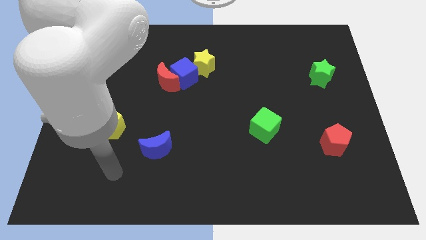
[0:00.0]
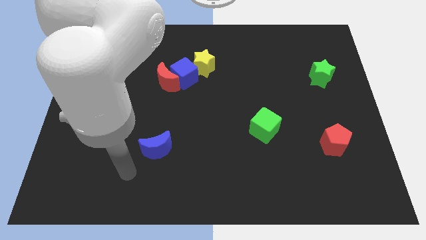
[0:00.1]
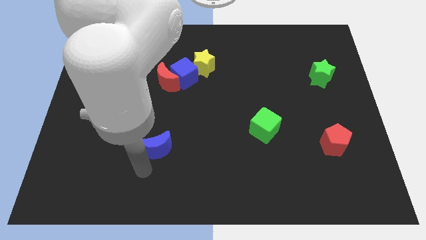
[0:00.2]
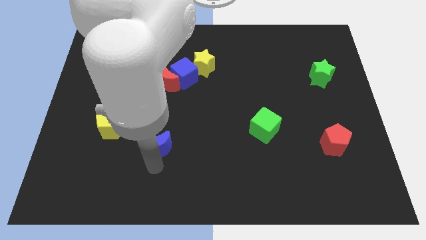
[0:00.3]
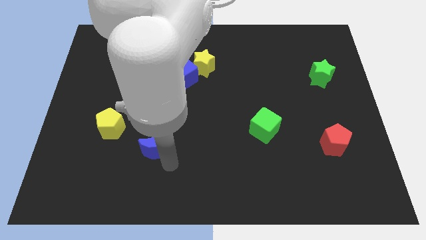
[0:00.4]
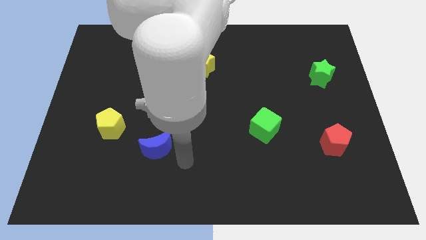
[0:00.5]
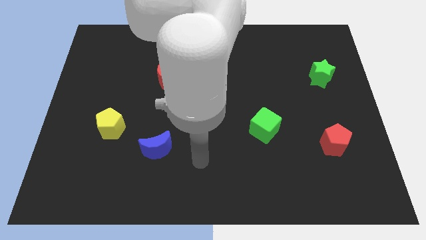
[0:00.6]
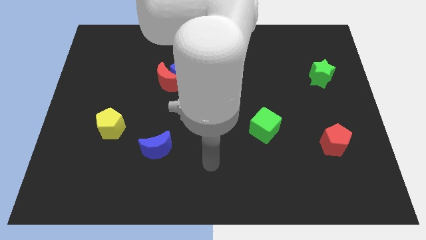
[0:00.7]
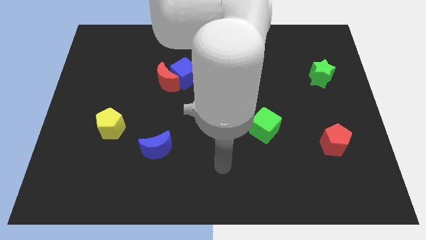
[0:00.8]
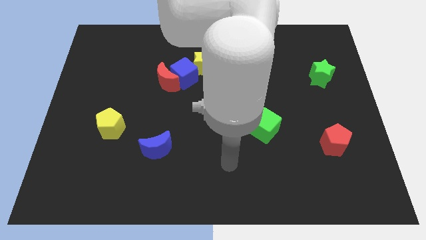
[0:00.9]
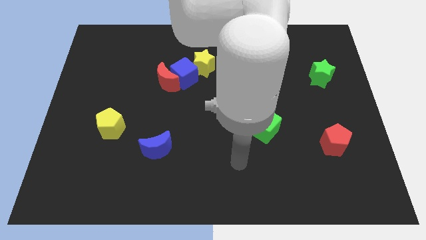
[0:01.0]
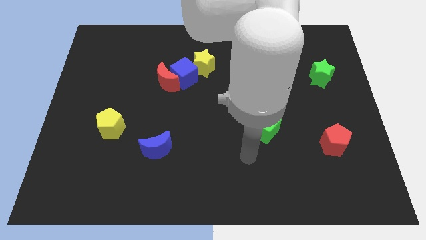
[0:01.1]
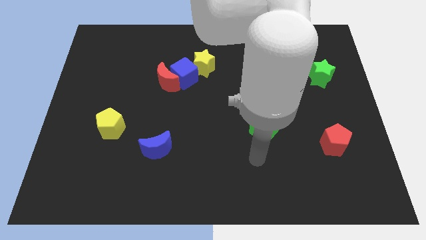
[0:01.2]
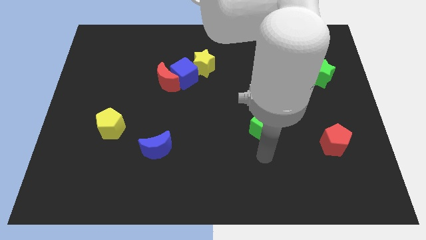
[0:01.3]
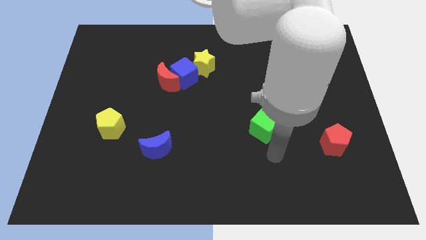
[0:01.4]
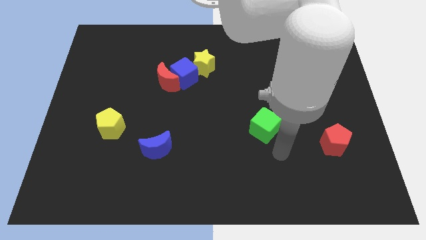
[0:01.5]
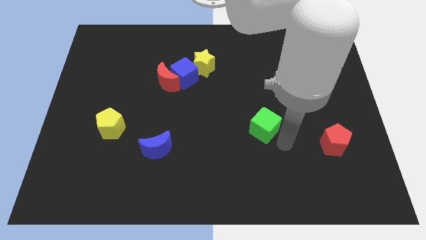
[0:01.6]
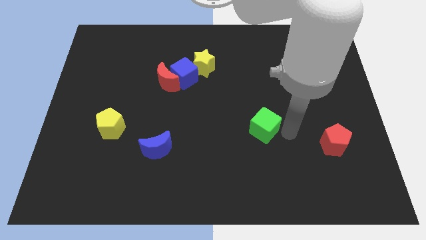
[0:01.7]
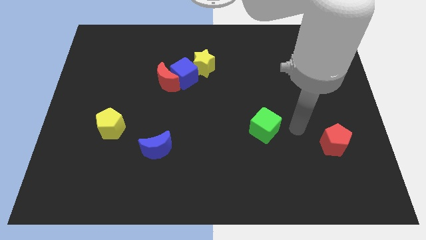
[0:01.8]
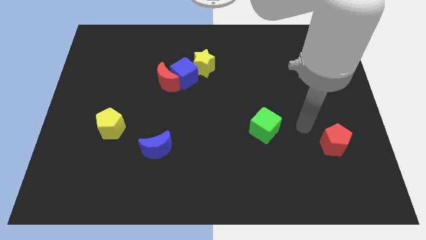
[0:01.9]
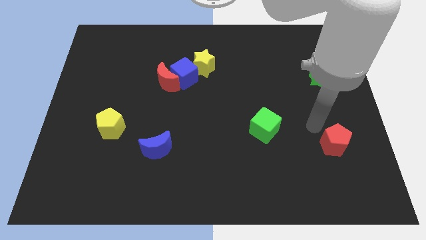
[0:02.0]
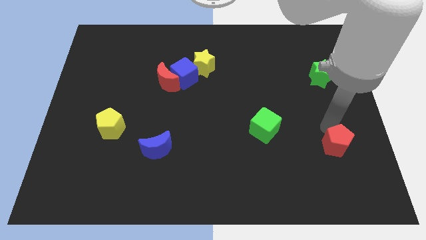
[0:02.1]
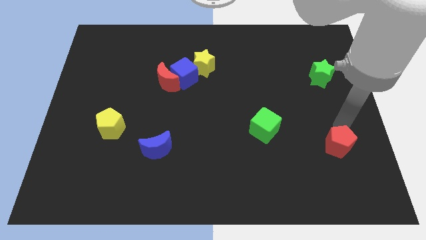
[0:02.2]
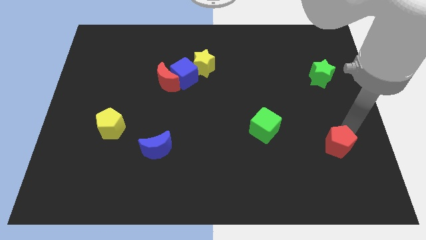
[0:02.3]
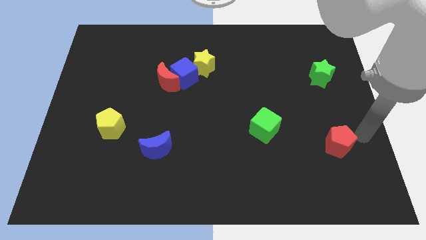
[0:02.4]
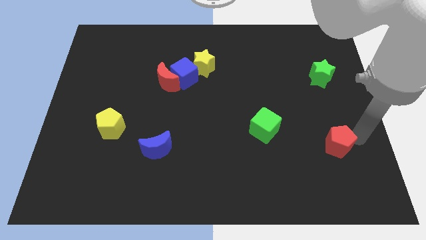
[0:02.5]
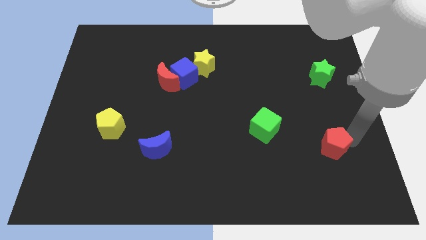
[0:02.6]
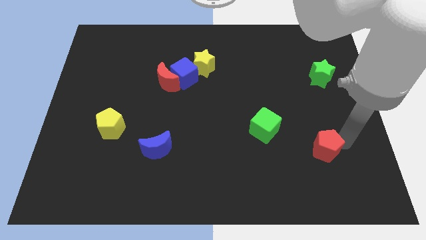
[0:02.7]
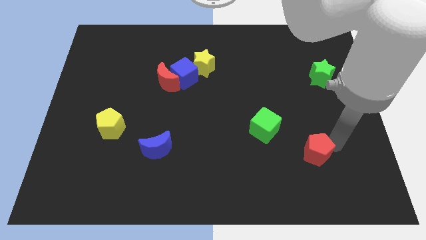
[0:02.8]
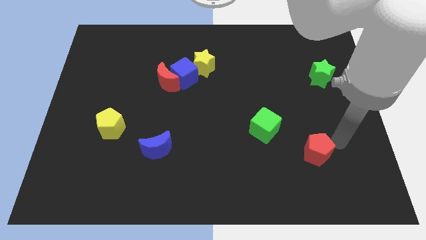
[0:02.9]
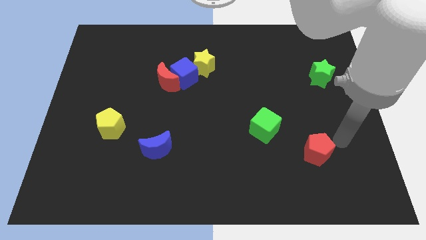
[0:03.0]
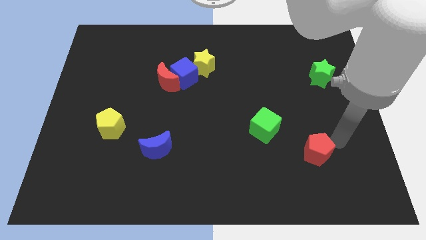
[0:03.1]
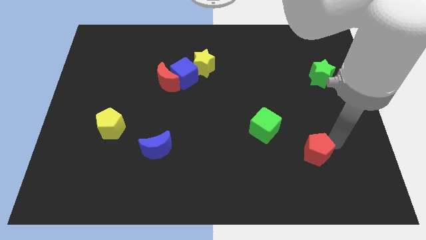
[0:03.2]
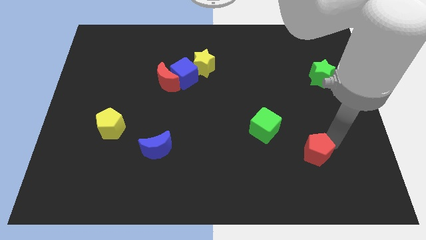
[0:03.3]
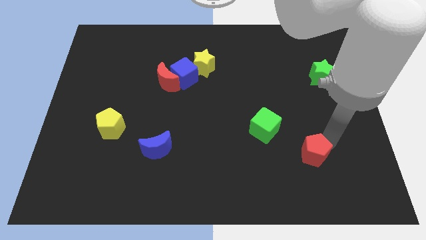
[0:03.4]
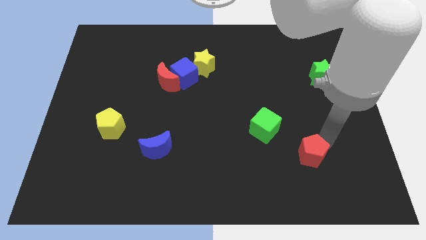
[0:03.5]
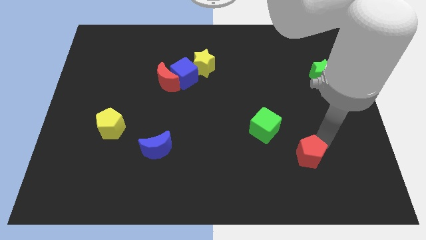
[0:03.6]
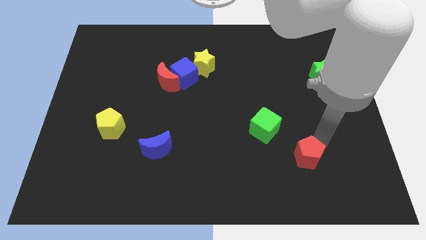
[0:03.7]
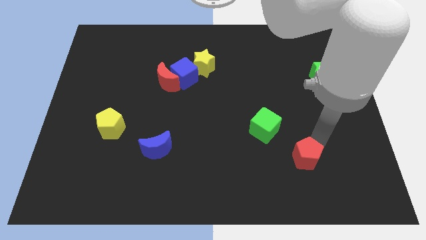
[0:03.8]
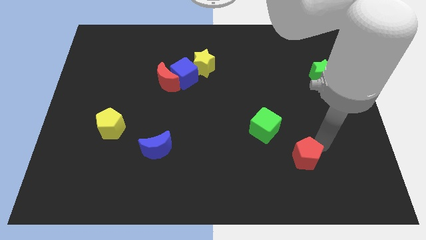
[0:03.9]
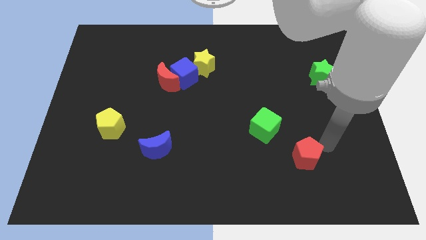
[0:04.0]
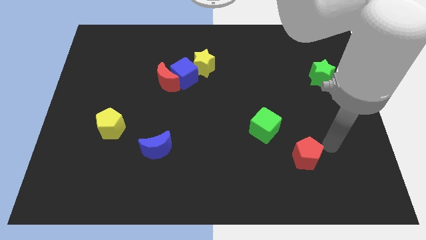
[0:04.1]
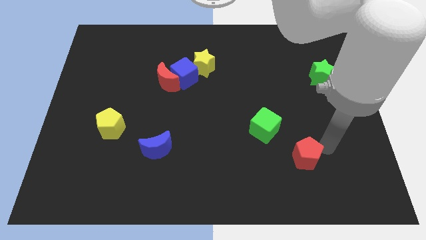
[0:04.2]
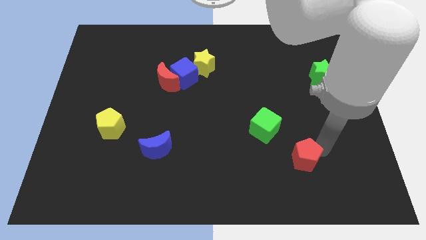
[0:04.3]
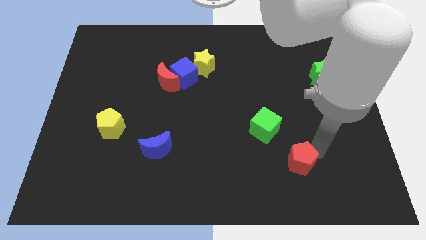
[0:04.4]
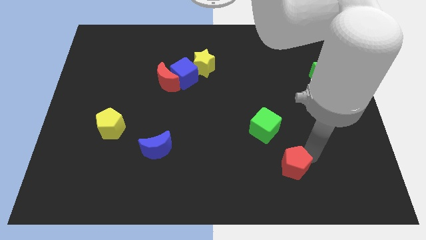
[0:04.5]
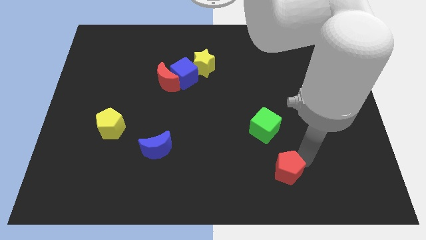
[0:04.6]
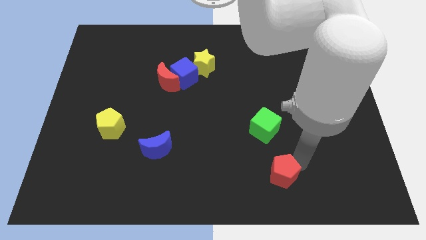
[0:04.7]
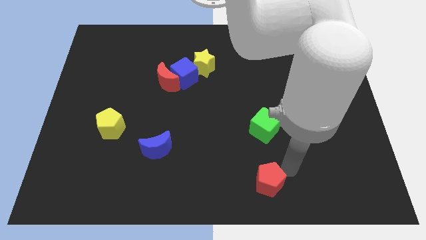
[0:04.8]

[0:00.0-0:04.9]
put the red pentagon to the bottom

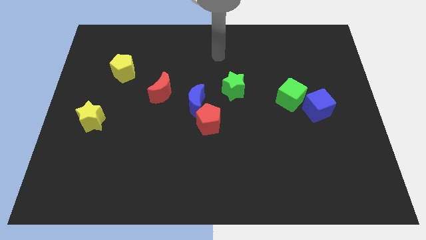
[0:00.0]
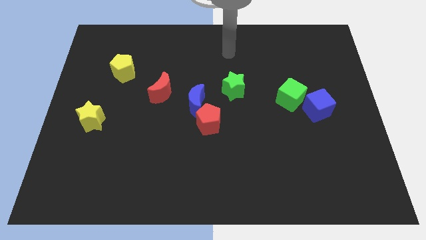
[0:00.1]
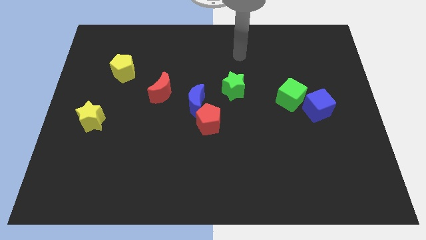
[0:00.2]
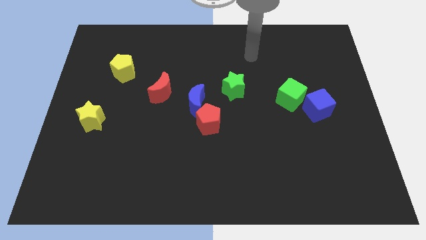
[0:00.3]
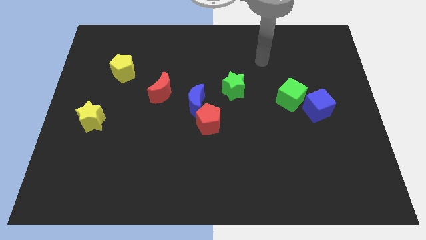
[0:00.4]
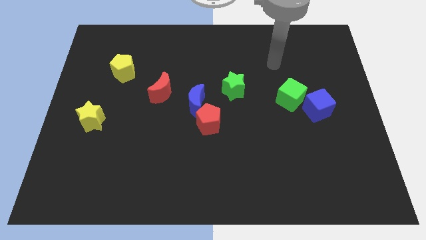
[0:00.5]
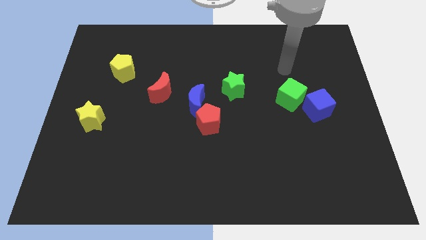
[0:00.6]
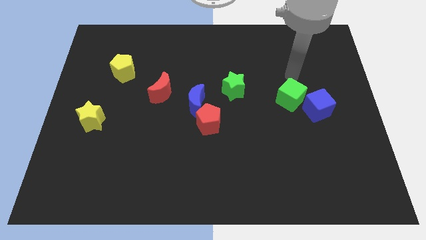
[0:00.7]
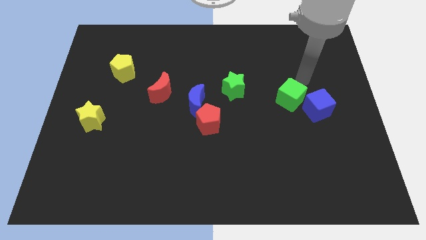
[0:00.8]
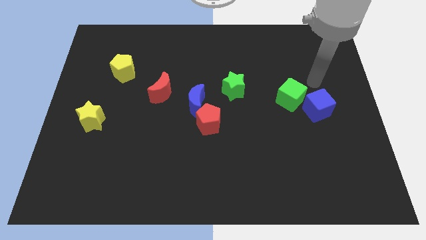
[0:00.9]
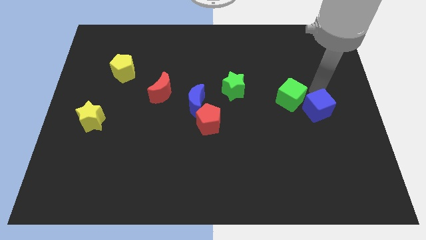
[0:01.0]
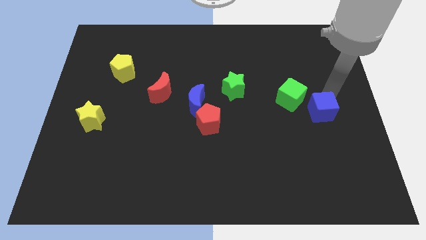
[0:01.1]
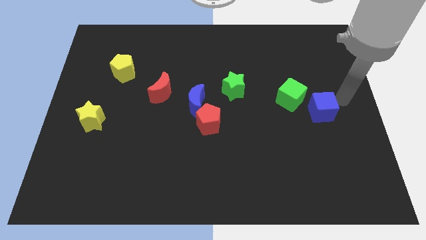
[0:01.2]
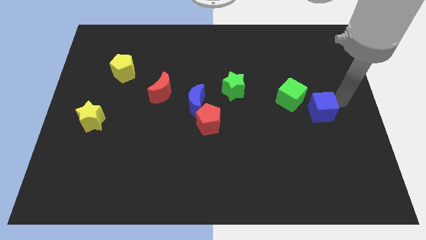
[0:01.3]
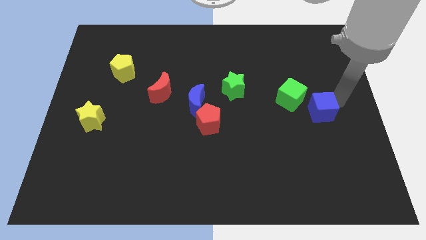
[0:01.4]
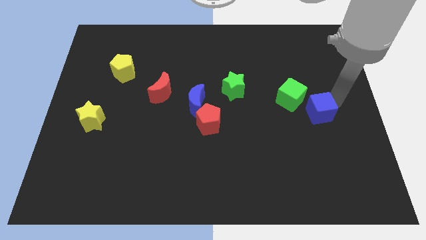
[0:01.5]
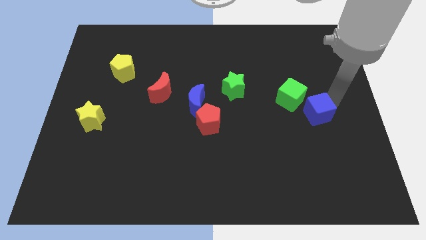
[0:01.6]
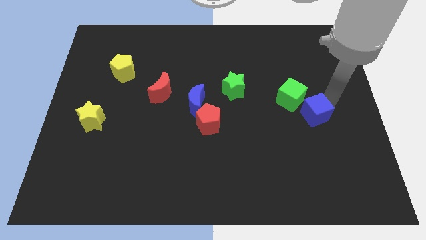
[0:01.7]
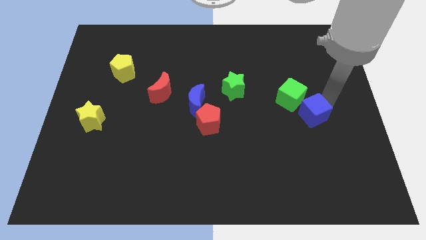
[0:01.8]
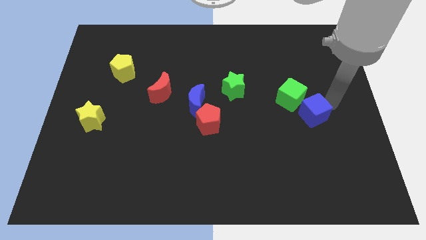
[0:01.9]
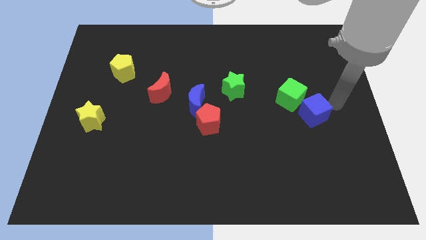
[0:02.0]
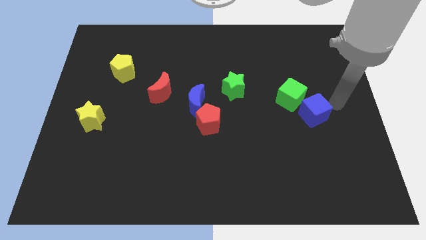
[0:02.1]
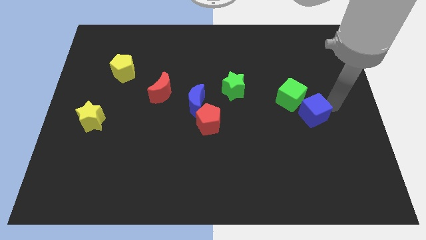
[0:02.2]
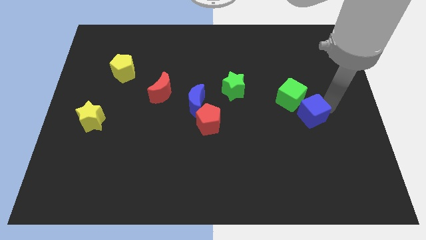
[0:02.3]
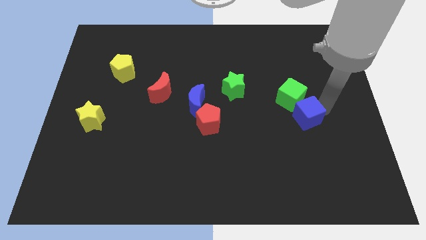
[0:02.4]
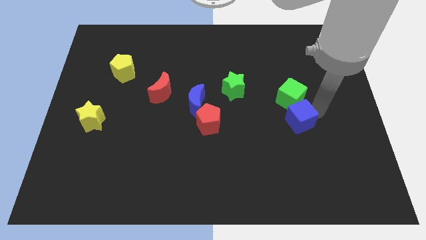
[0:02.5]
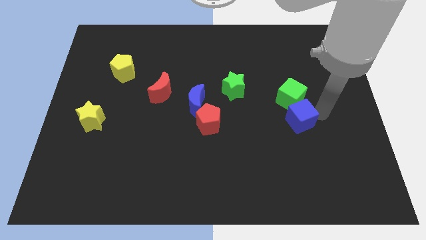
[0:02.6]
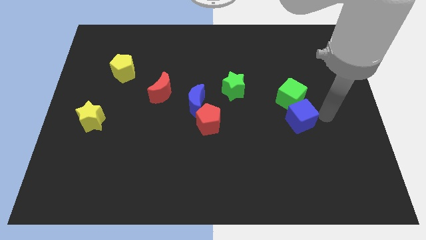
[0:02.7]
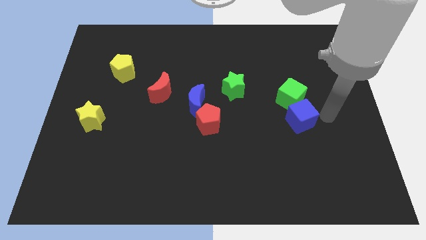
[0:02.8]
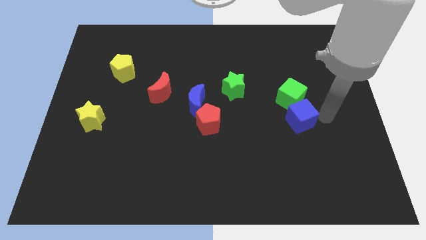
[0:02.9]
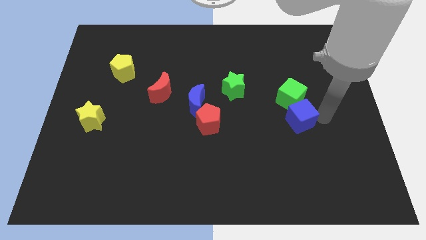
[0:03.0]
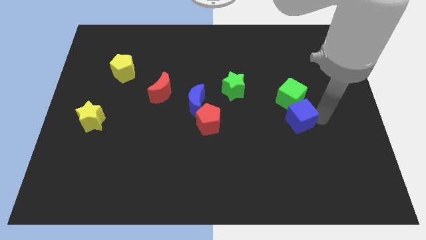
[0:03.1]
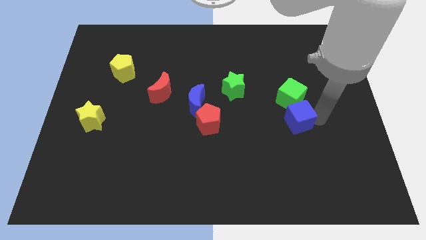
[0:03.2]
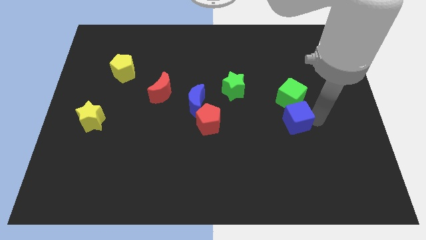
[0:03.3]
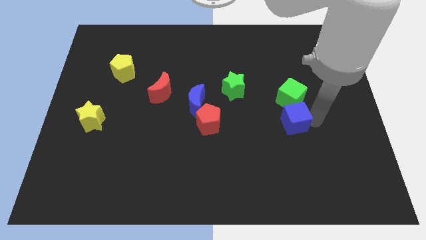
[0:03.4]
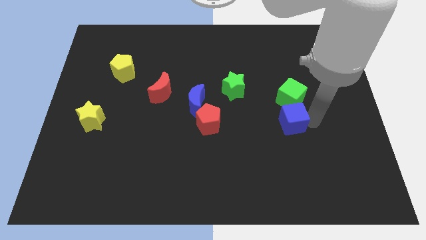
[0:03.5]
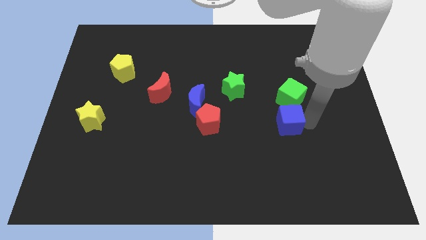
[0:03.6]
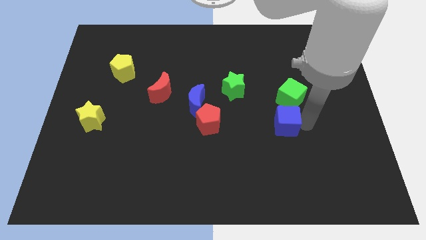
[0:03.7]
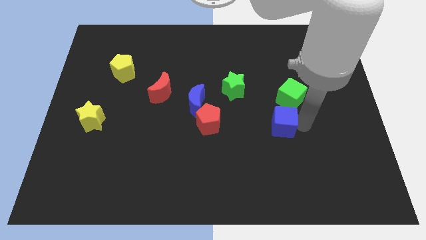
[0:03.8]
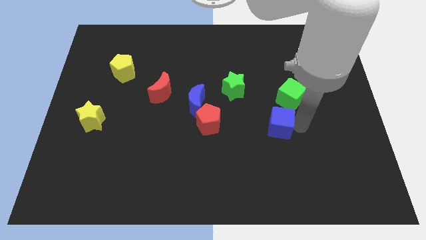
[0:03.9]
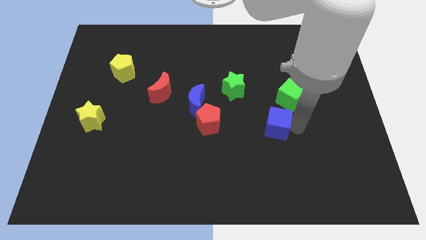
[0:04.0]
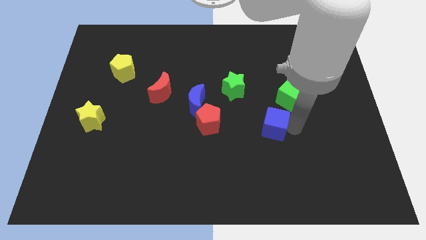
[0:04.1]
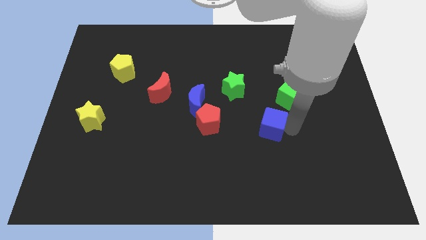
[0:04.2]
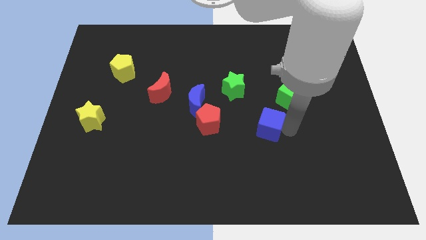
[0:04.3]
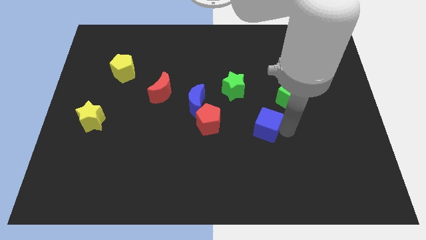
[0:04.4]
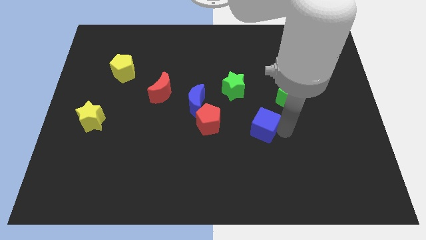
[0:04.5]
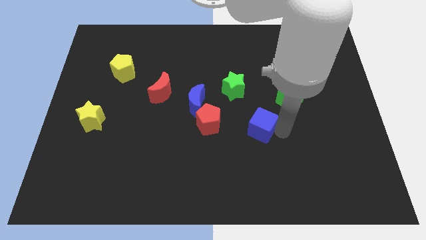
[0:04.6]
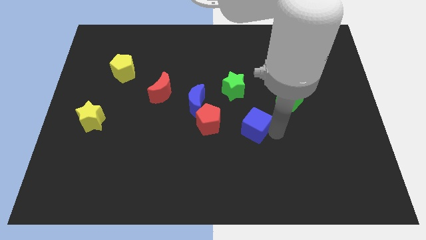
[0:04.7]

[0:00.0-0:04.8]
move the blue cube to the middle of the board
